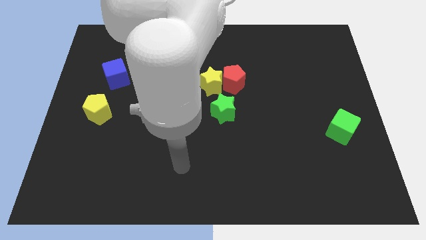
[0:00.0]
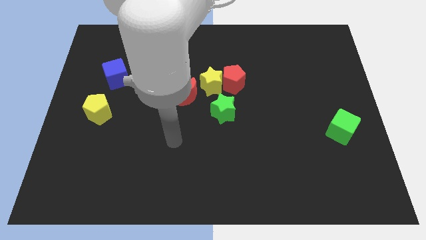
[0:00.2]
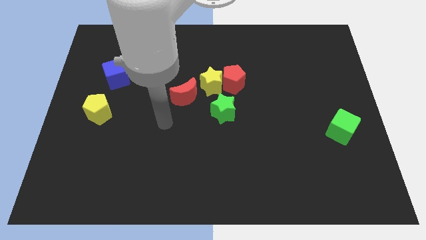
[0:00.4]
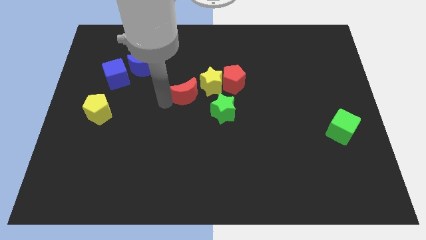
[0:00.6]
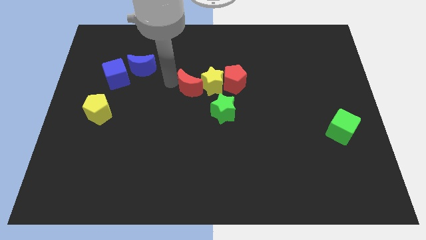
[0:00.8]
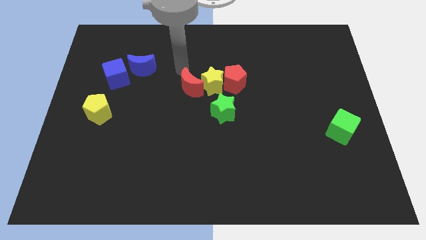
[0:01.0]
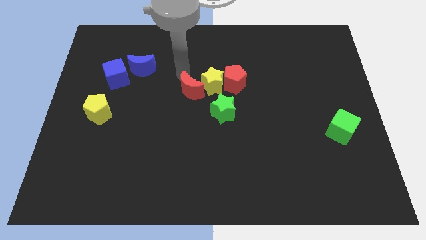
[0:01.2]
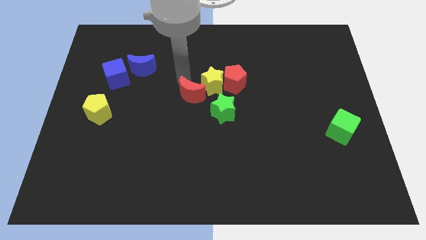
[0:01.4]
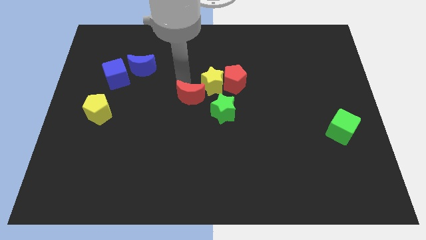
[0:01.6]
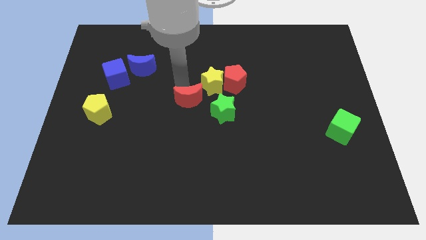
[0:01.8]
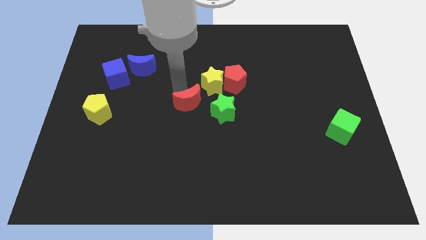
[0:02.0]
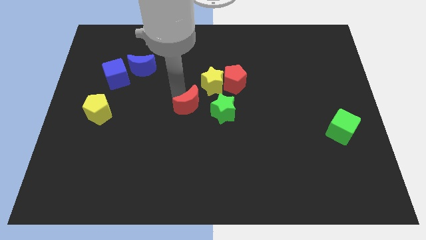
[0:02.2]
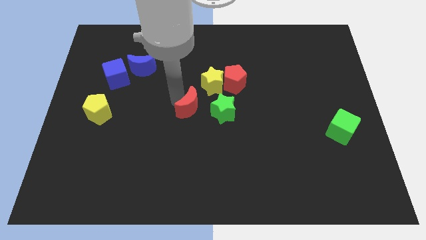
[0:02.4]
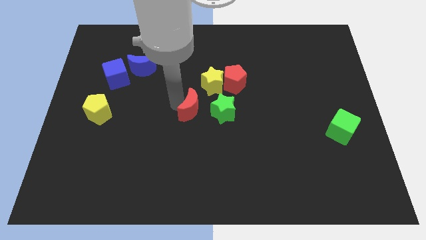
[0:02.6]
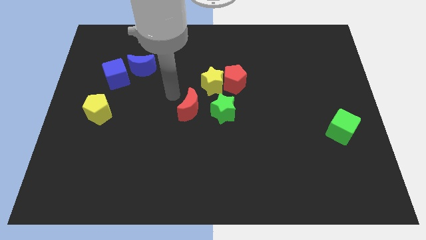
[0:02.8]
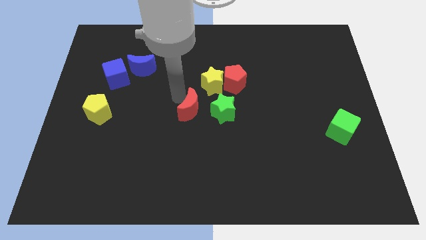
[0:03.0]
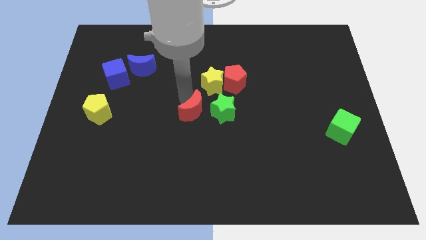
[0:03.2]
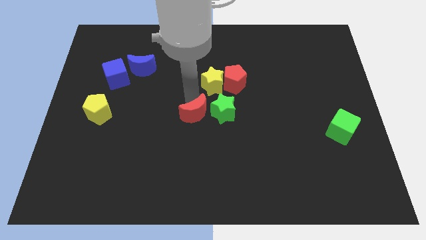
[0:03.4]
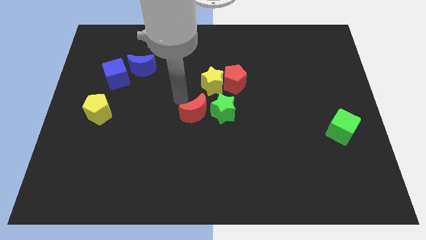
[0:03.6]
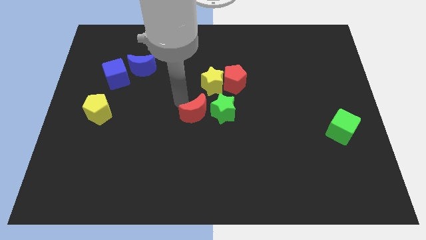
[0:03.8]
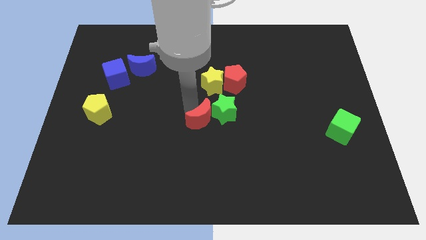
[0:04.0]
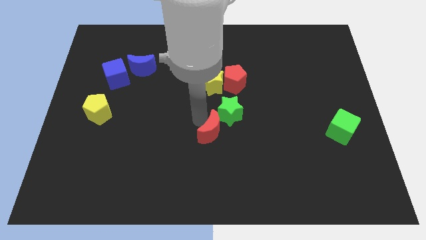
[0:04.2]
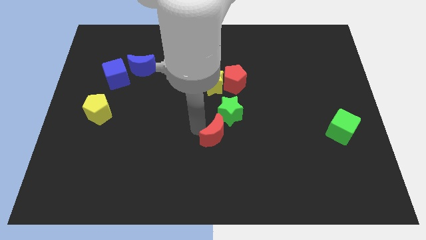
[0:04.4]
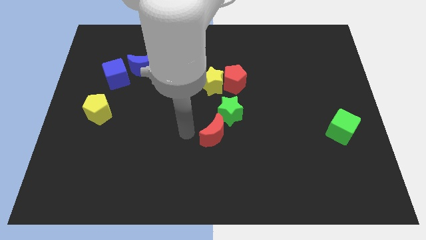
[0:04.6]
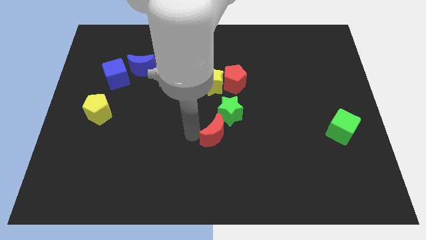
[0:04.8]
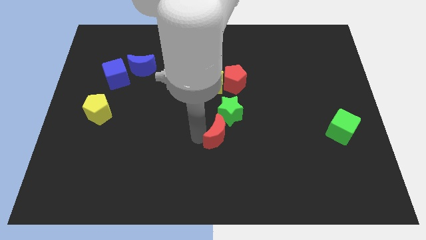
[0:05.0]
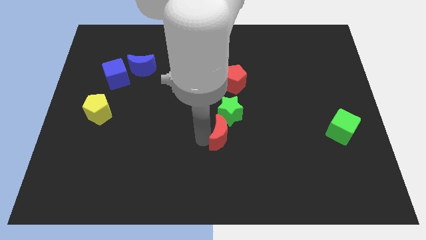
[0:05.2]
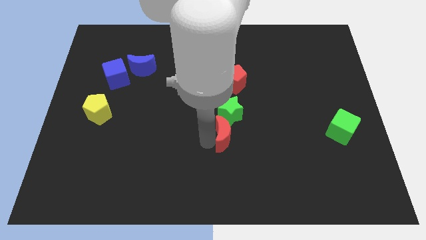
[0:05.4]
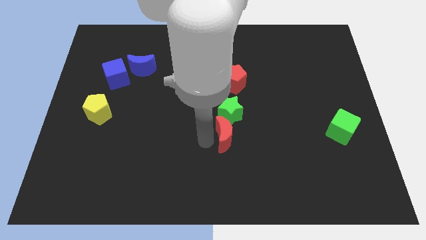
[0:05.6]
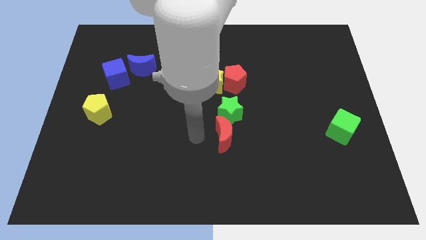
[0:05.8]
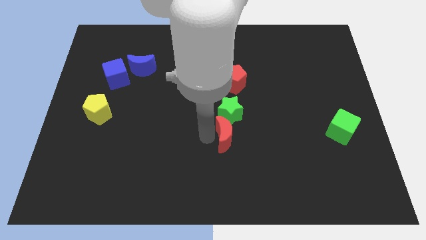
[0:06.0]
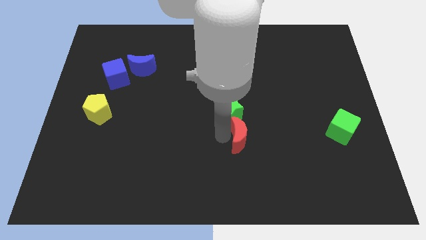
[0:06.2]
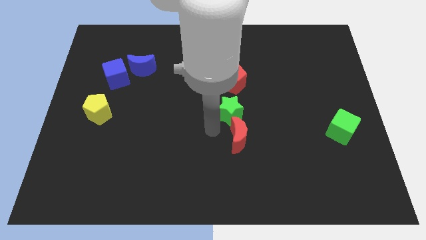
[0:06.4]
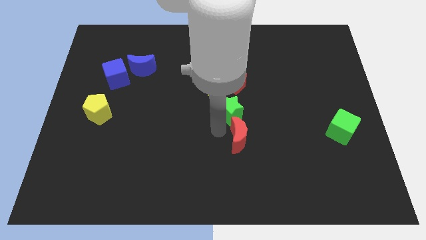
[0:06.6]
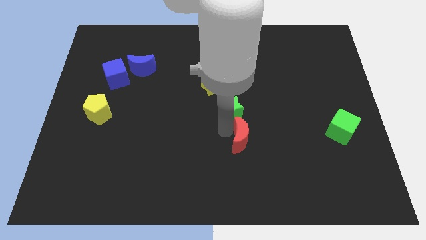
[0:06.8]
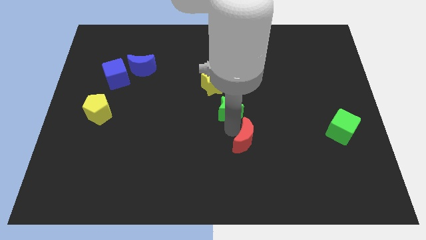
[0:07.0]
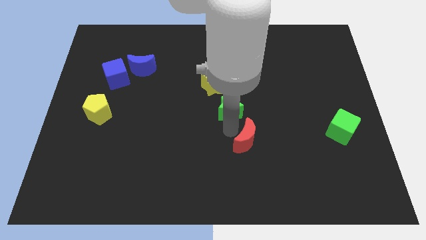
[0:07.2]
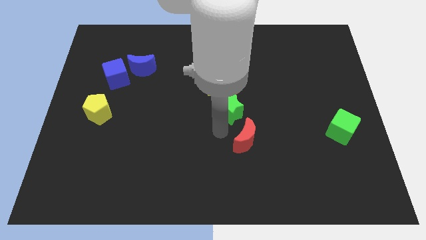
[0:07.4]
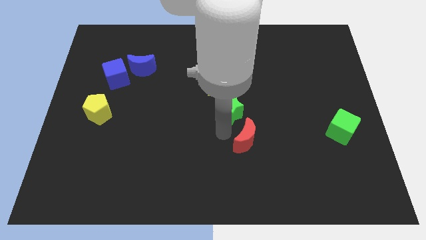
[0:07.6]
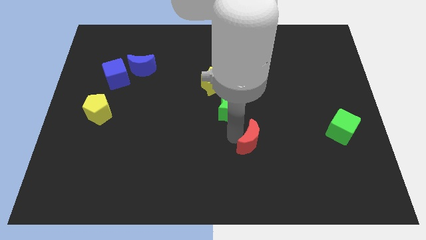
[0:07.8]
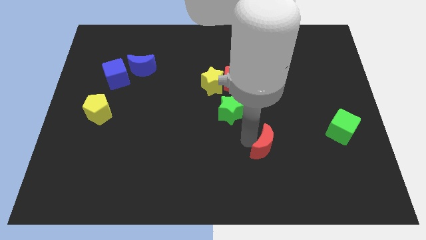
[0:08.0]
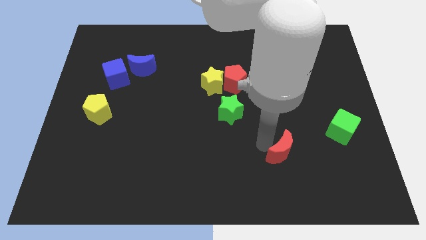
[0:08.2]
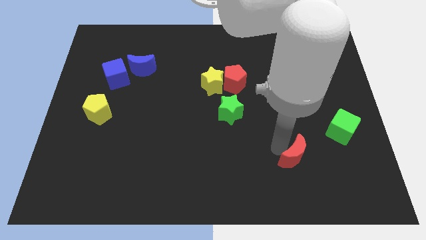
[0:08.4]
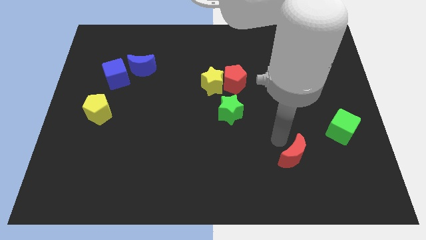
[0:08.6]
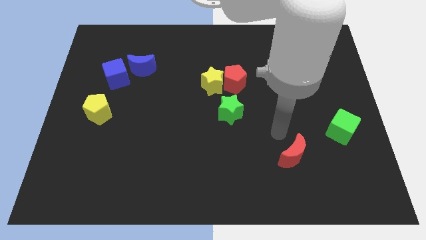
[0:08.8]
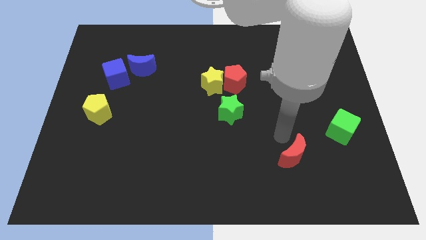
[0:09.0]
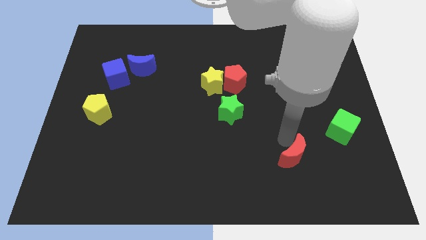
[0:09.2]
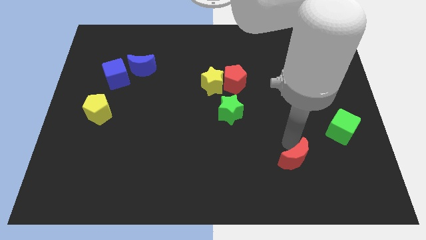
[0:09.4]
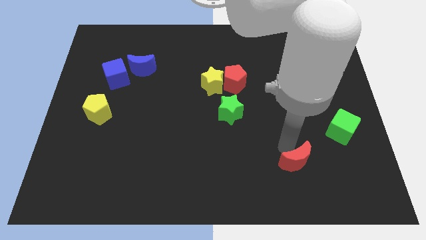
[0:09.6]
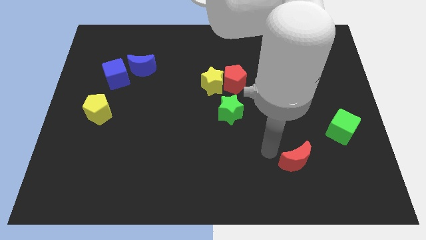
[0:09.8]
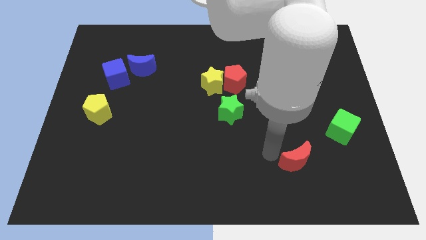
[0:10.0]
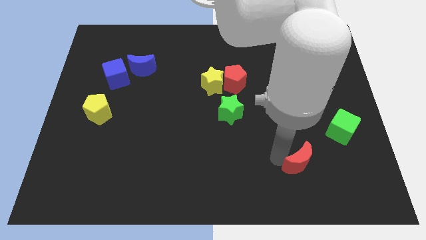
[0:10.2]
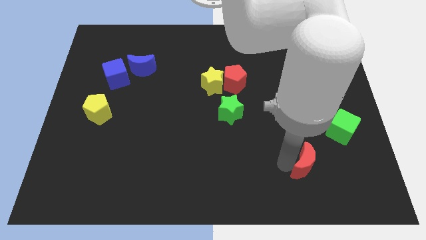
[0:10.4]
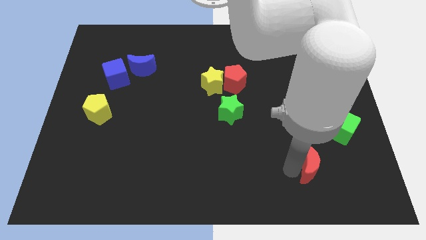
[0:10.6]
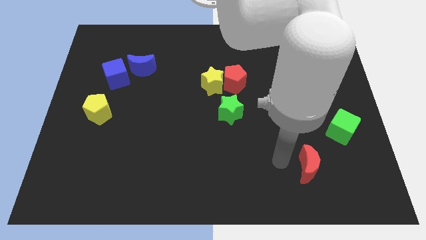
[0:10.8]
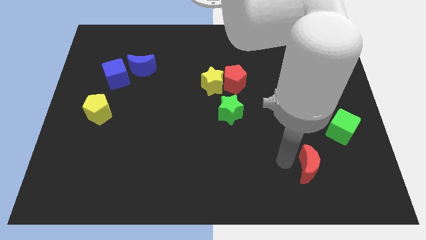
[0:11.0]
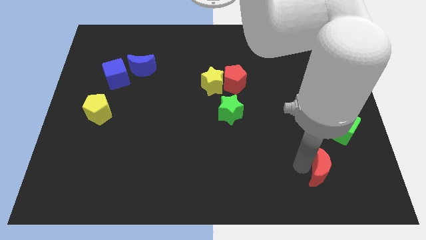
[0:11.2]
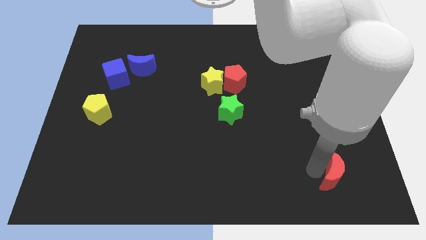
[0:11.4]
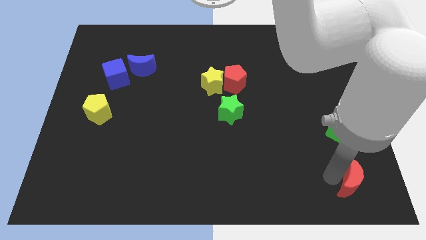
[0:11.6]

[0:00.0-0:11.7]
slide the red moon to the bottom right corner

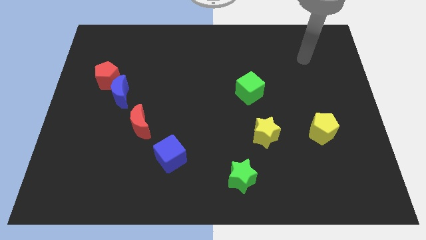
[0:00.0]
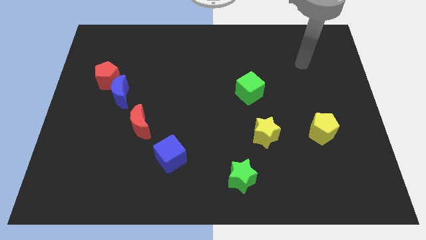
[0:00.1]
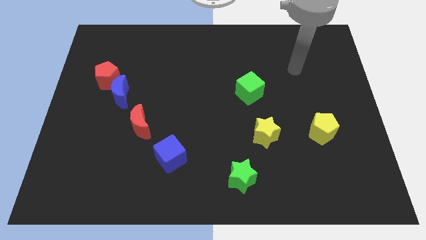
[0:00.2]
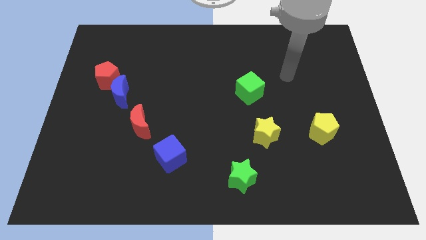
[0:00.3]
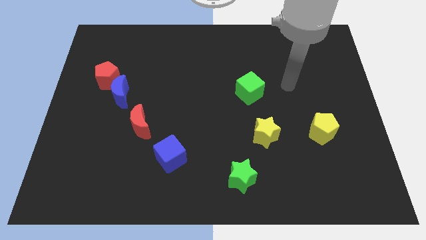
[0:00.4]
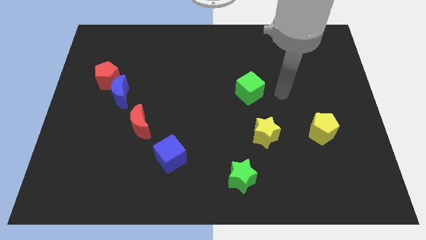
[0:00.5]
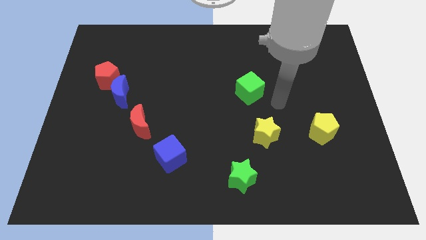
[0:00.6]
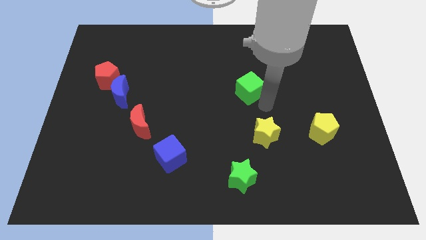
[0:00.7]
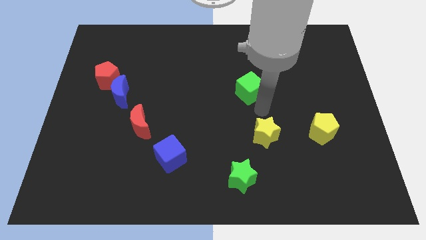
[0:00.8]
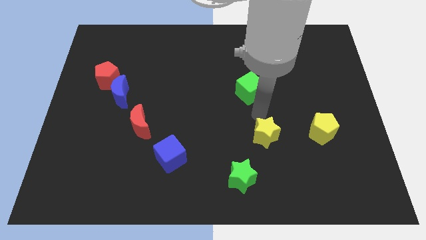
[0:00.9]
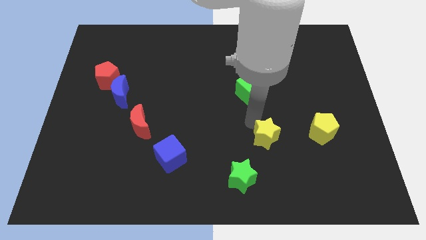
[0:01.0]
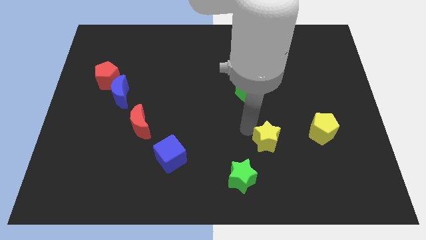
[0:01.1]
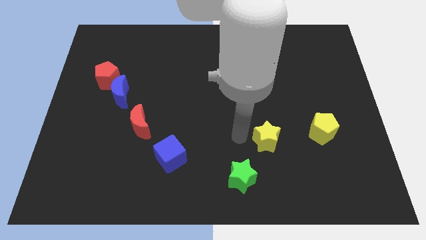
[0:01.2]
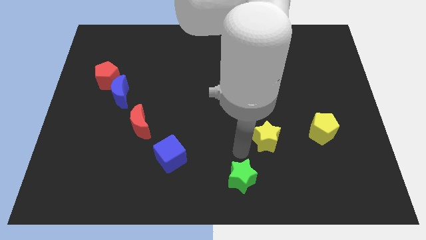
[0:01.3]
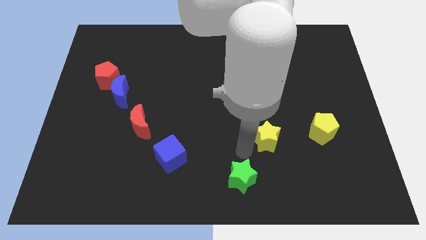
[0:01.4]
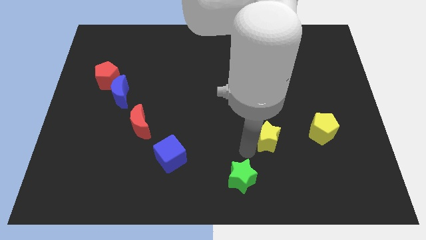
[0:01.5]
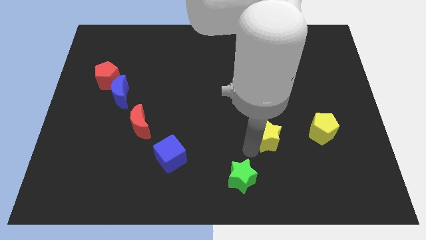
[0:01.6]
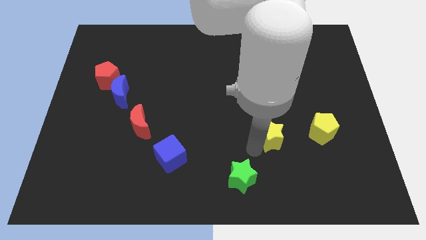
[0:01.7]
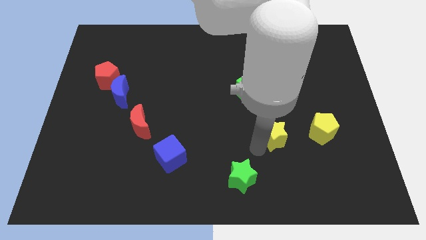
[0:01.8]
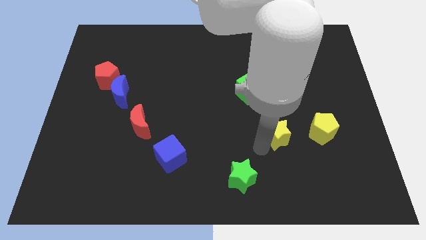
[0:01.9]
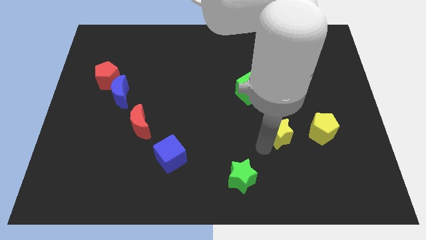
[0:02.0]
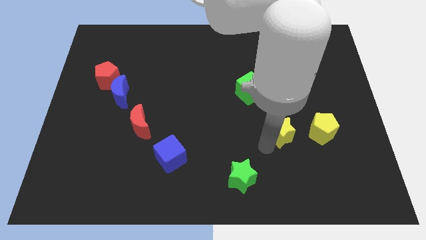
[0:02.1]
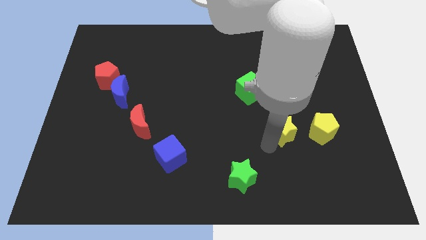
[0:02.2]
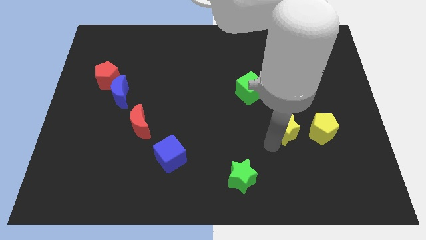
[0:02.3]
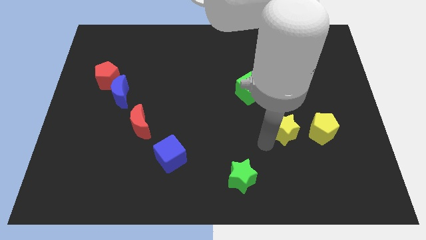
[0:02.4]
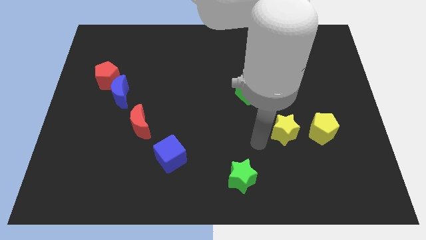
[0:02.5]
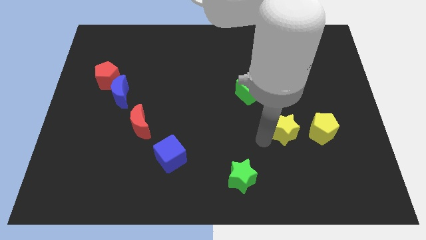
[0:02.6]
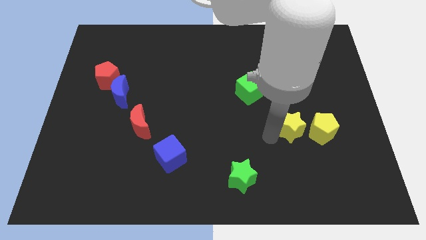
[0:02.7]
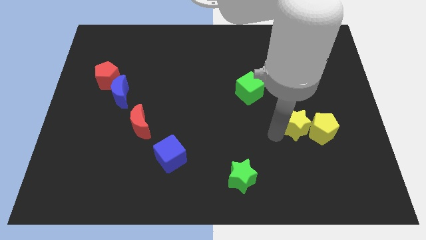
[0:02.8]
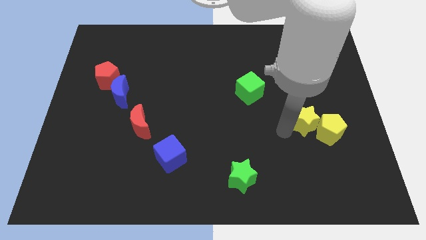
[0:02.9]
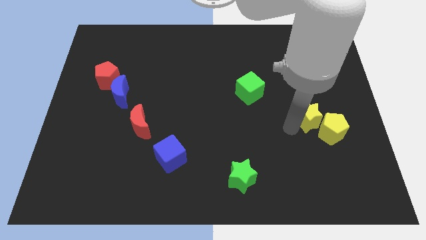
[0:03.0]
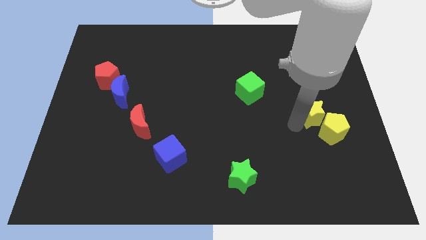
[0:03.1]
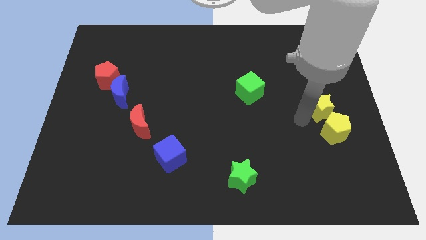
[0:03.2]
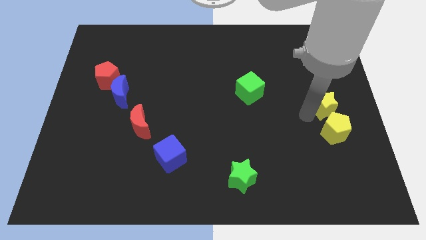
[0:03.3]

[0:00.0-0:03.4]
move the yellow star to the center right
